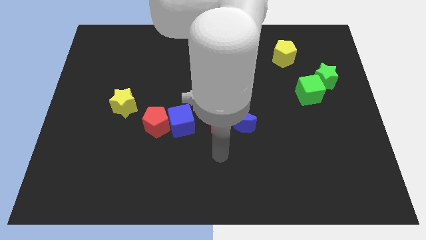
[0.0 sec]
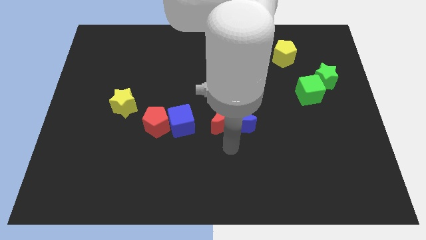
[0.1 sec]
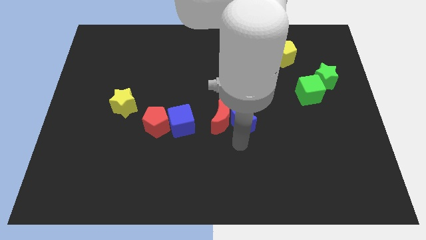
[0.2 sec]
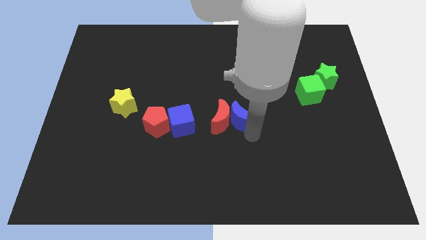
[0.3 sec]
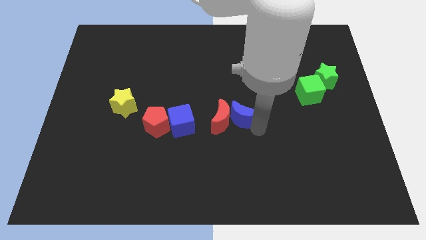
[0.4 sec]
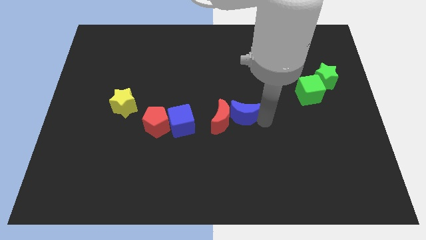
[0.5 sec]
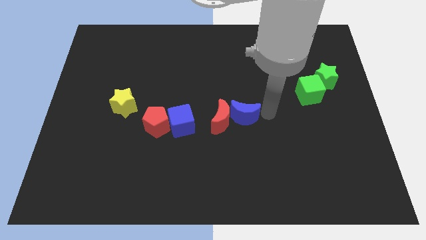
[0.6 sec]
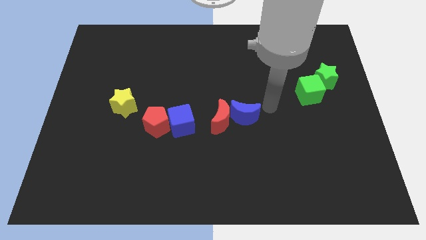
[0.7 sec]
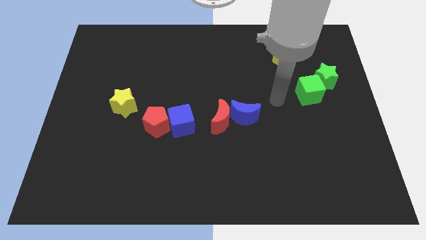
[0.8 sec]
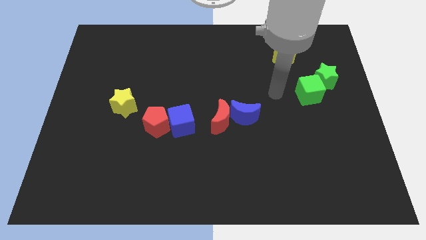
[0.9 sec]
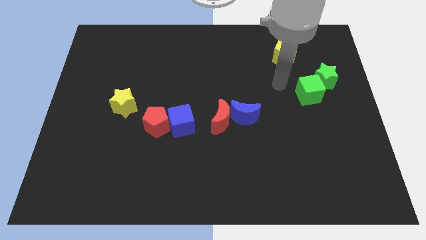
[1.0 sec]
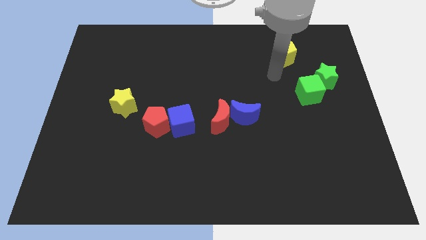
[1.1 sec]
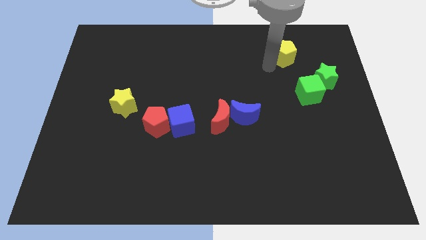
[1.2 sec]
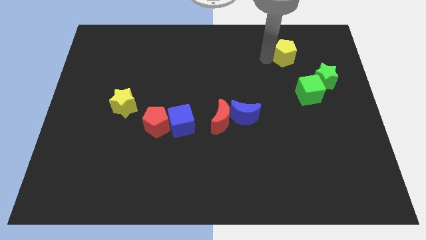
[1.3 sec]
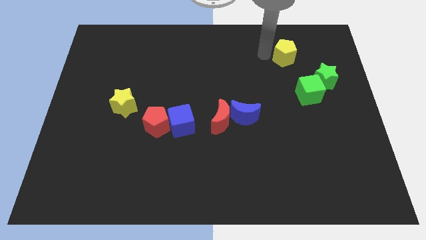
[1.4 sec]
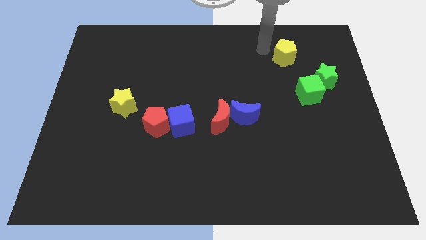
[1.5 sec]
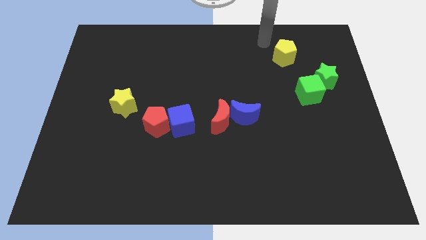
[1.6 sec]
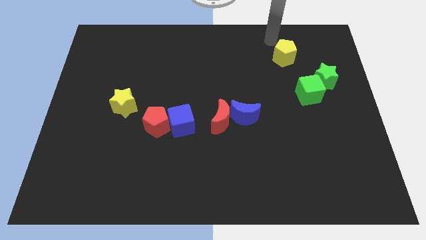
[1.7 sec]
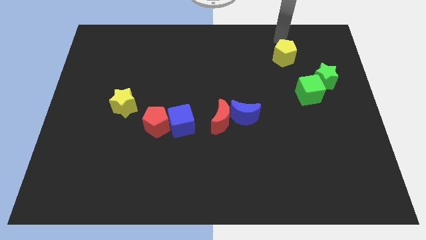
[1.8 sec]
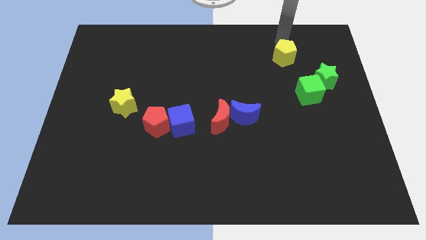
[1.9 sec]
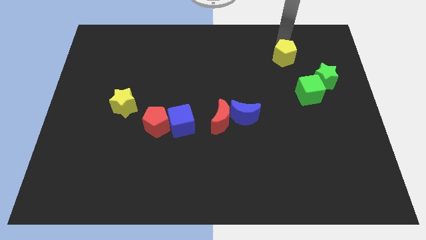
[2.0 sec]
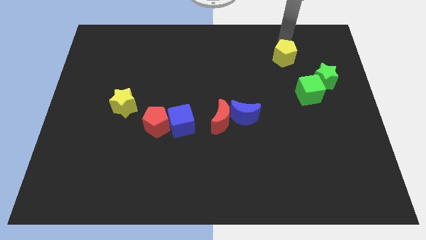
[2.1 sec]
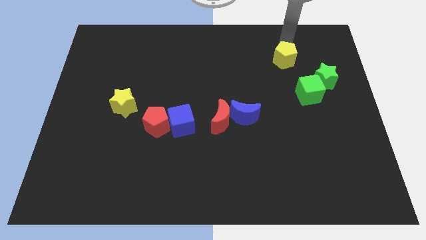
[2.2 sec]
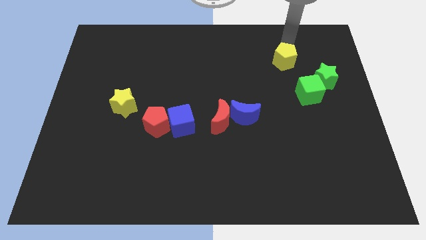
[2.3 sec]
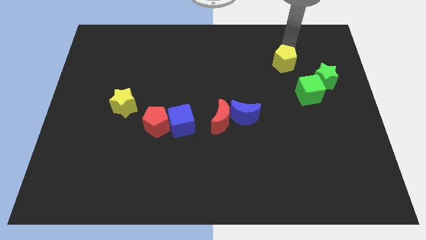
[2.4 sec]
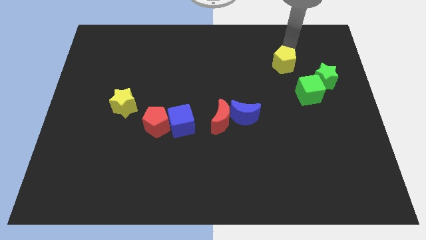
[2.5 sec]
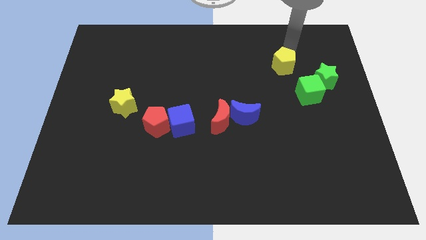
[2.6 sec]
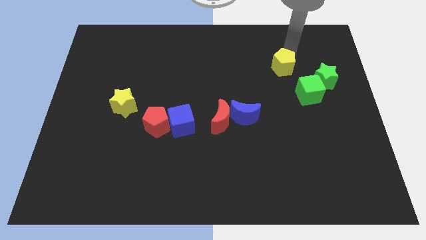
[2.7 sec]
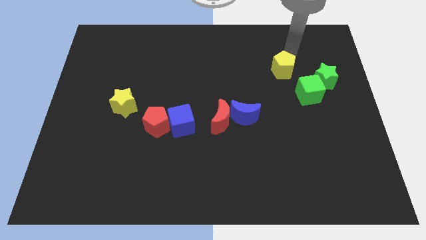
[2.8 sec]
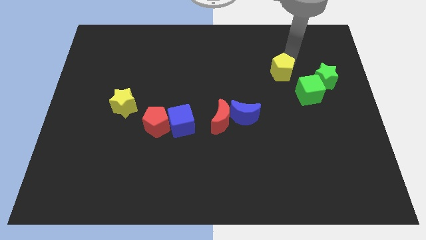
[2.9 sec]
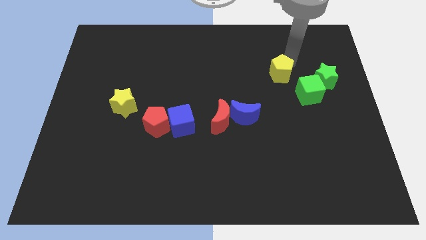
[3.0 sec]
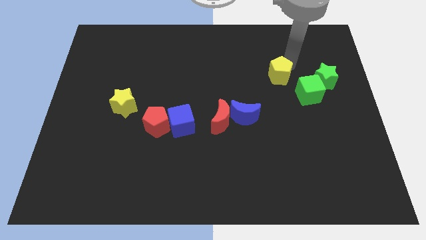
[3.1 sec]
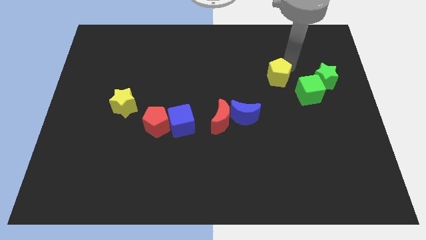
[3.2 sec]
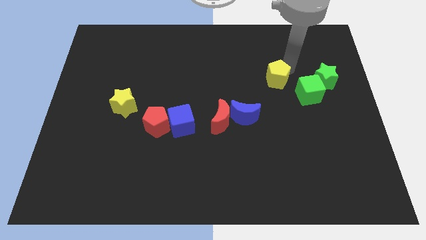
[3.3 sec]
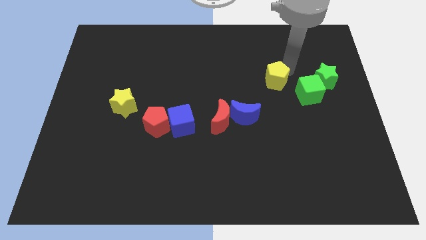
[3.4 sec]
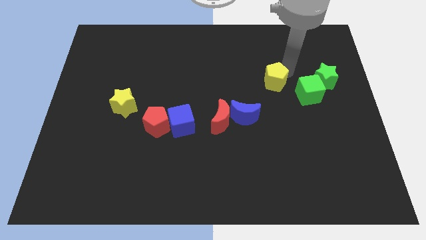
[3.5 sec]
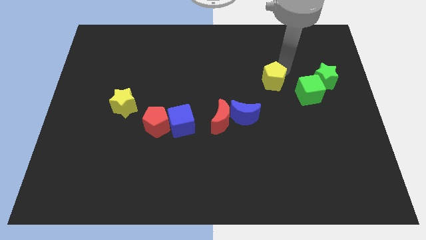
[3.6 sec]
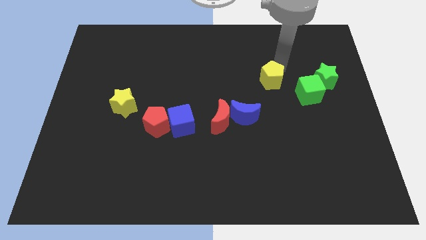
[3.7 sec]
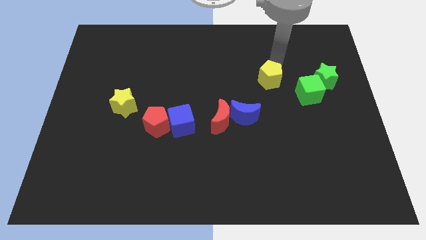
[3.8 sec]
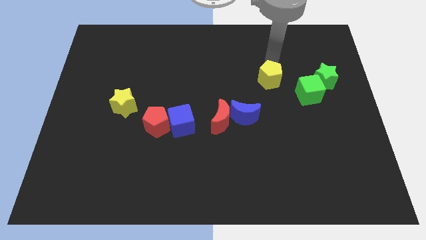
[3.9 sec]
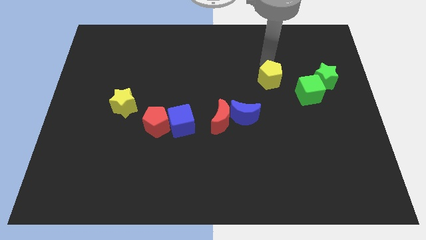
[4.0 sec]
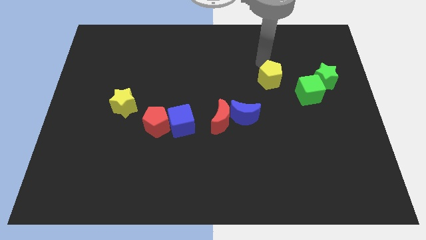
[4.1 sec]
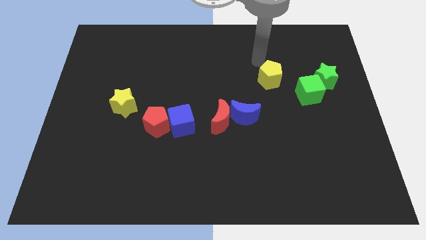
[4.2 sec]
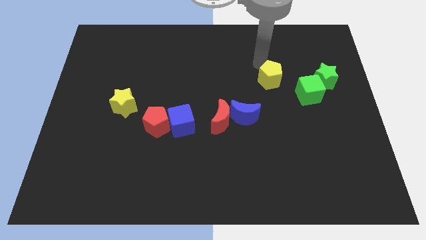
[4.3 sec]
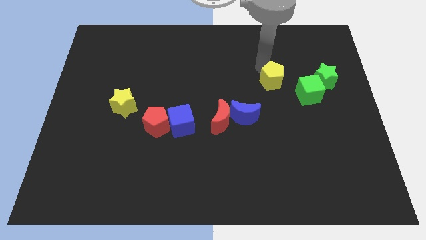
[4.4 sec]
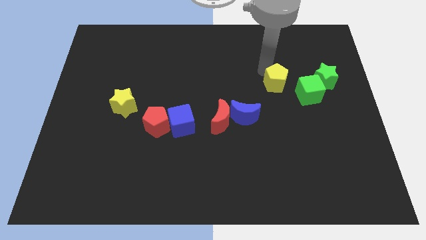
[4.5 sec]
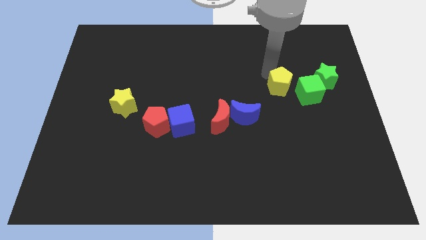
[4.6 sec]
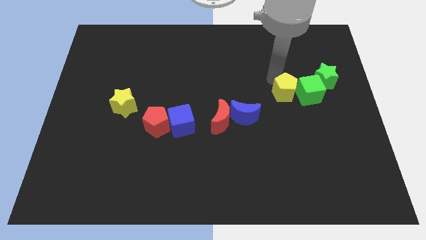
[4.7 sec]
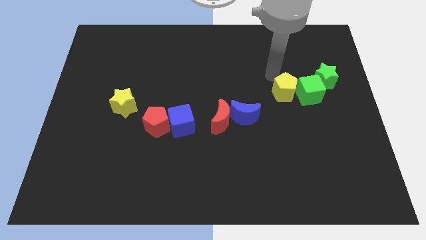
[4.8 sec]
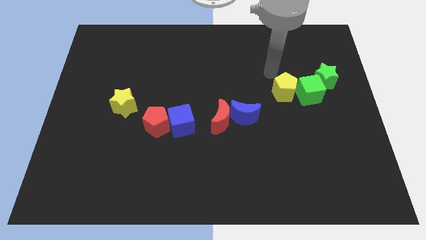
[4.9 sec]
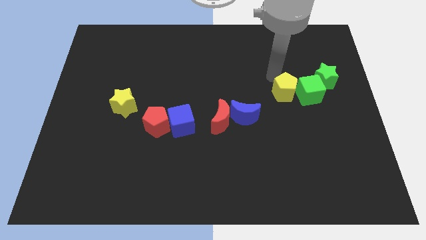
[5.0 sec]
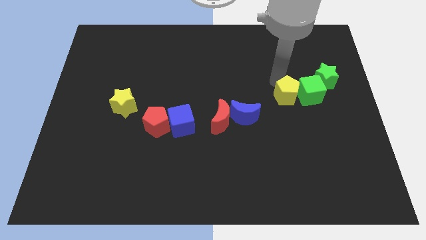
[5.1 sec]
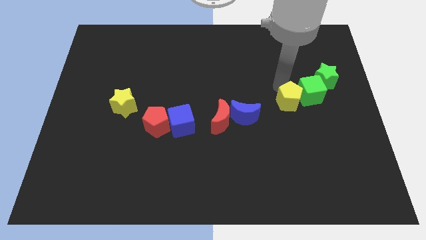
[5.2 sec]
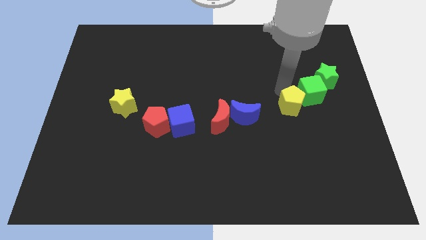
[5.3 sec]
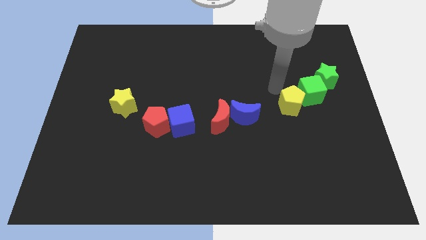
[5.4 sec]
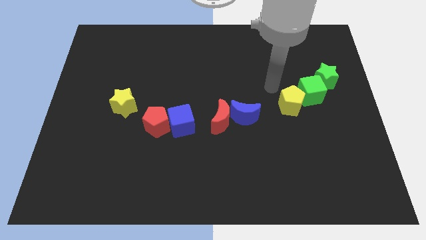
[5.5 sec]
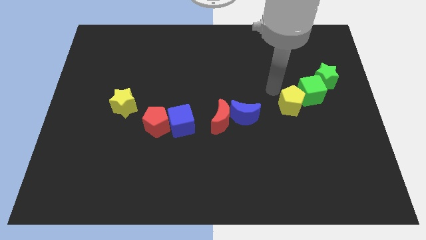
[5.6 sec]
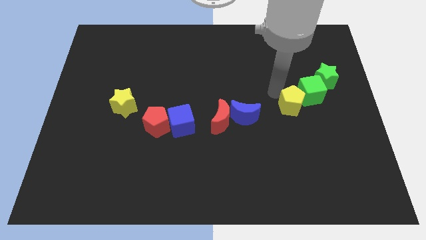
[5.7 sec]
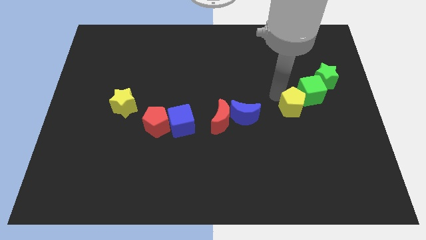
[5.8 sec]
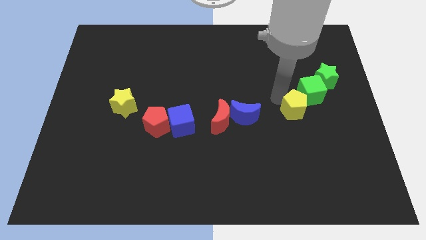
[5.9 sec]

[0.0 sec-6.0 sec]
put the yellow pentagon to the bottom side of the green cube

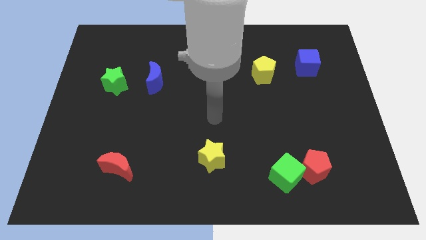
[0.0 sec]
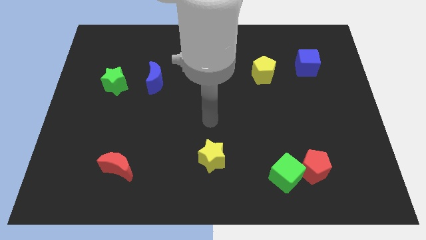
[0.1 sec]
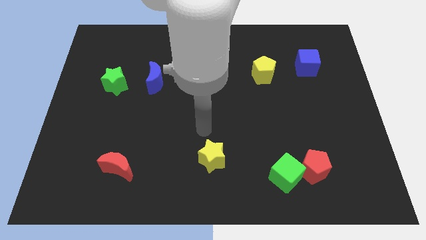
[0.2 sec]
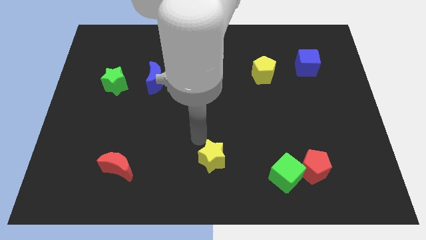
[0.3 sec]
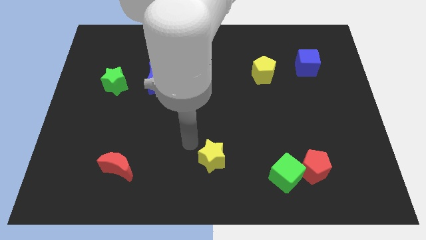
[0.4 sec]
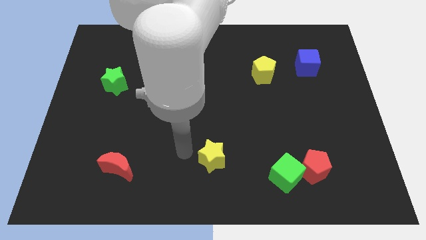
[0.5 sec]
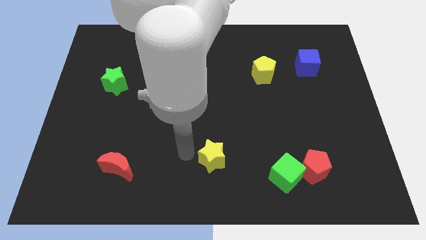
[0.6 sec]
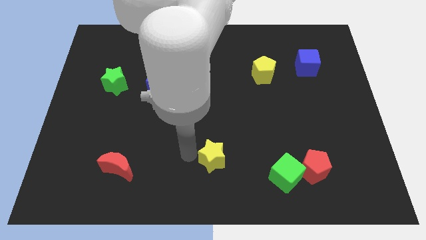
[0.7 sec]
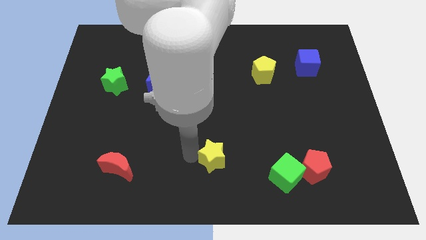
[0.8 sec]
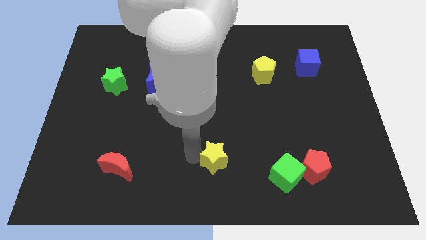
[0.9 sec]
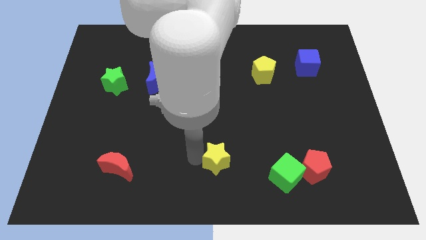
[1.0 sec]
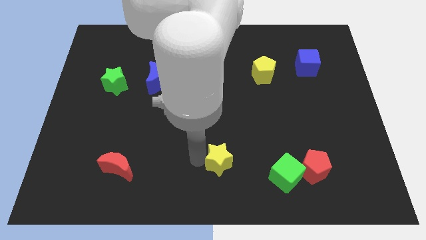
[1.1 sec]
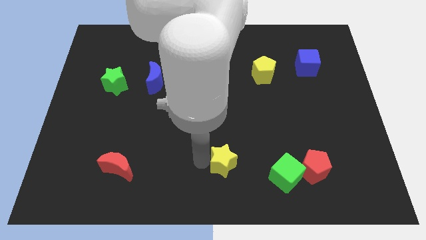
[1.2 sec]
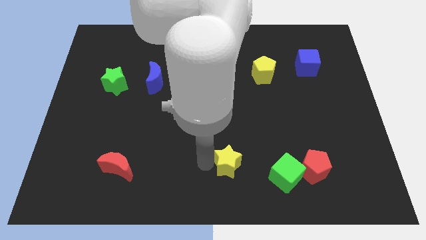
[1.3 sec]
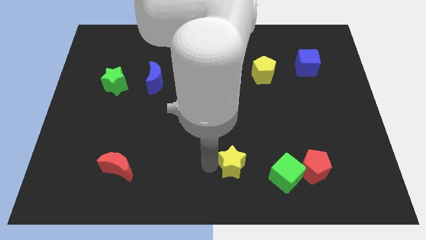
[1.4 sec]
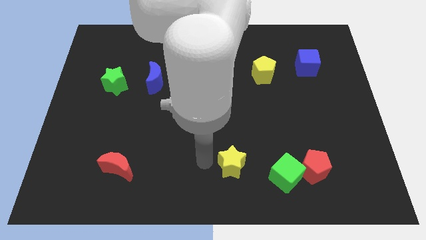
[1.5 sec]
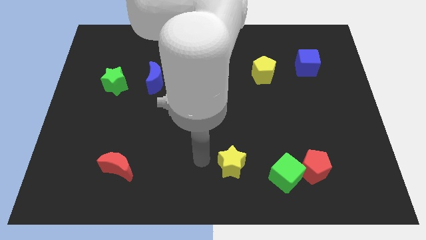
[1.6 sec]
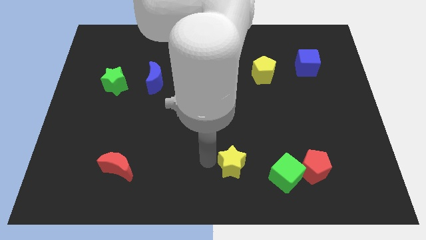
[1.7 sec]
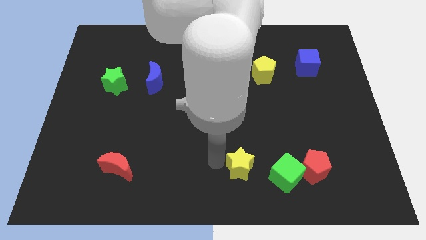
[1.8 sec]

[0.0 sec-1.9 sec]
move the yellow star just left of the red pentagon
